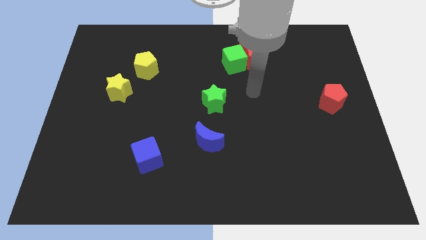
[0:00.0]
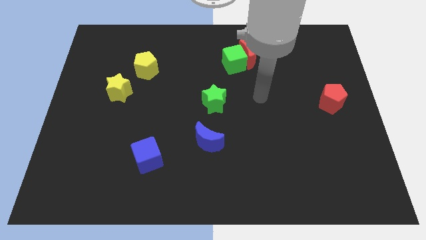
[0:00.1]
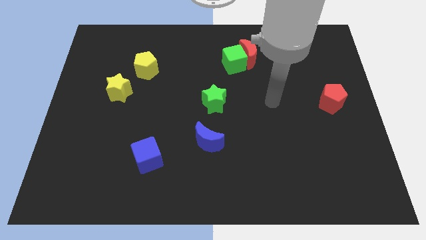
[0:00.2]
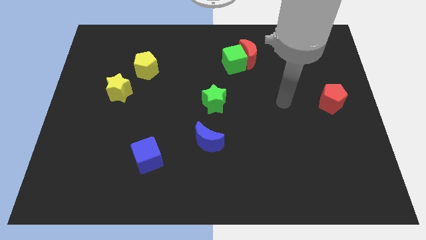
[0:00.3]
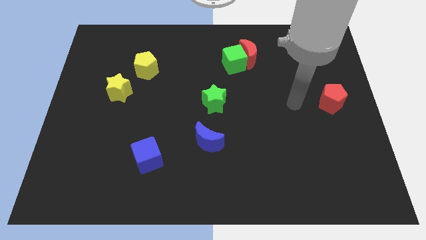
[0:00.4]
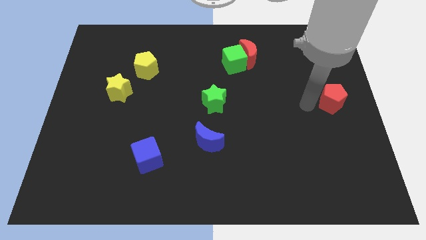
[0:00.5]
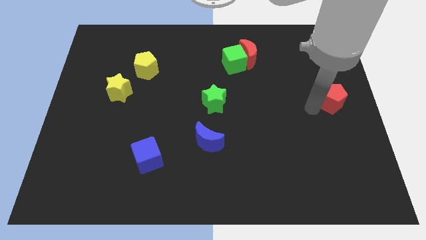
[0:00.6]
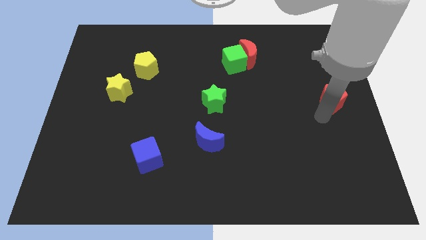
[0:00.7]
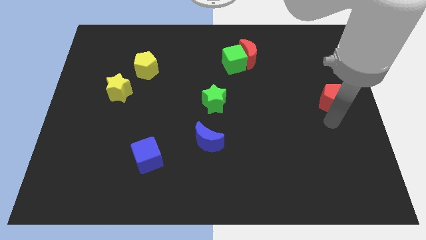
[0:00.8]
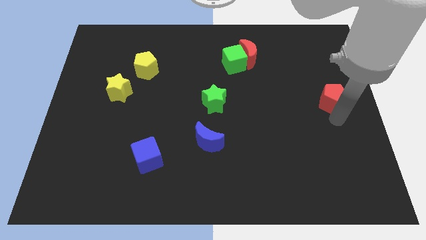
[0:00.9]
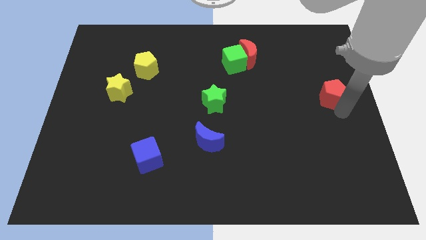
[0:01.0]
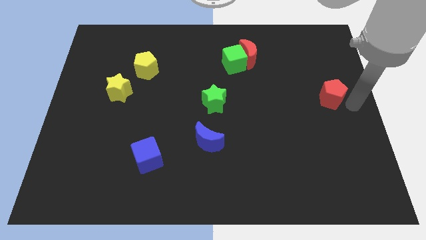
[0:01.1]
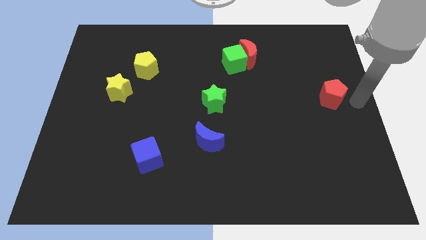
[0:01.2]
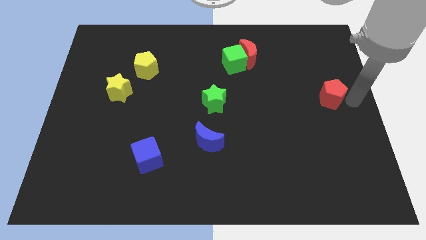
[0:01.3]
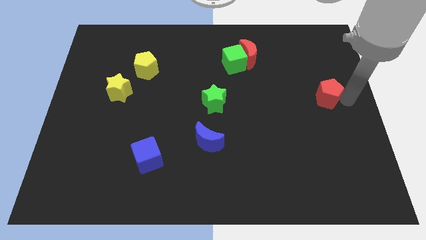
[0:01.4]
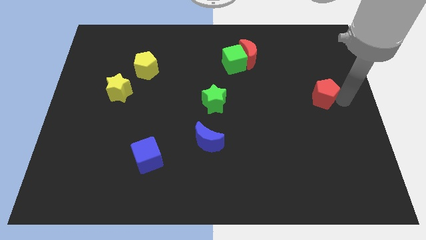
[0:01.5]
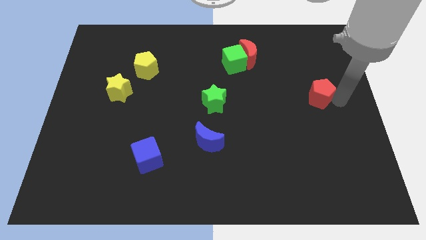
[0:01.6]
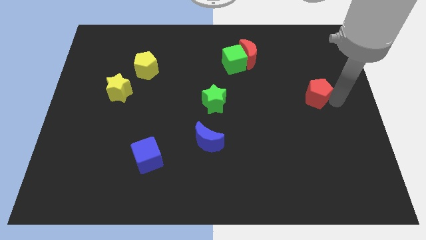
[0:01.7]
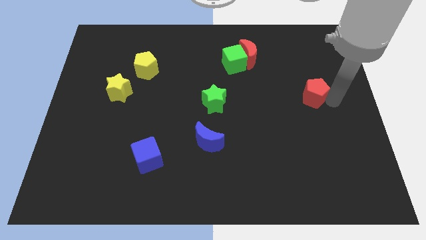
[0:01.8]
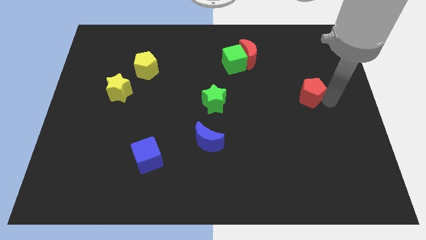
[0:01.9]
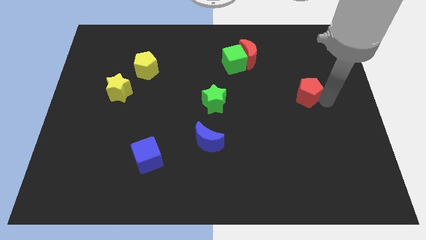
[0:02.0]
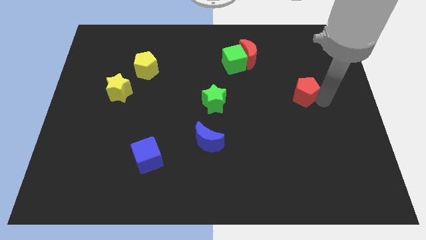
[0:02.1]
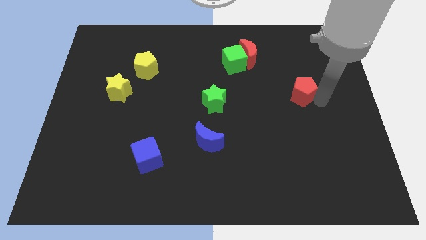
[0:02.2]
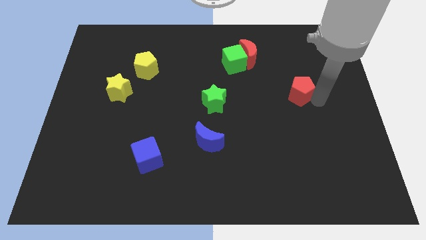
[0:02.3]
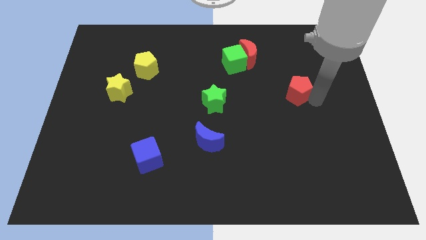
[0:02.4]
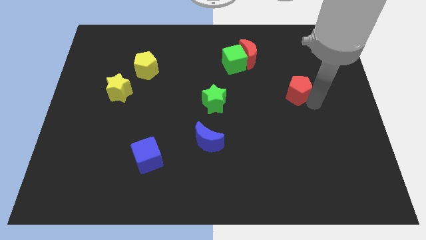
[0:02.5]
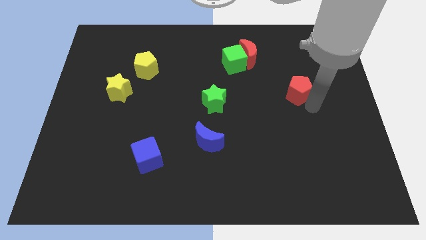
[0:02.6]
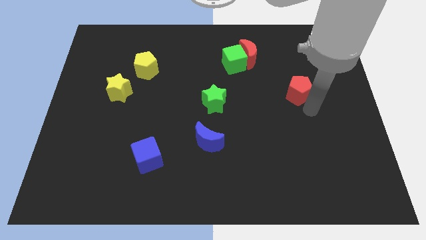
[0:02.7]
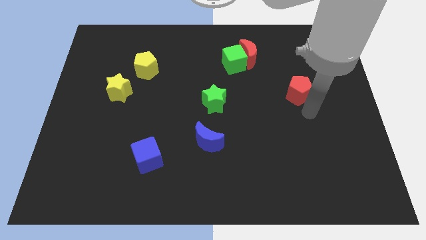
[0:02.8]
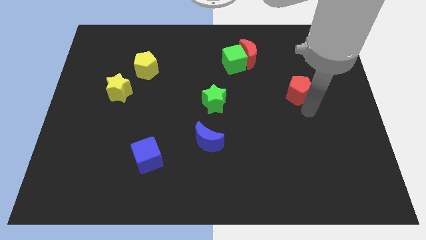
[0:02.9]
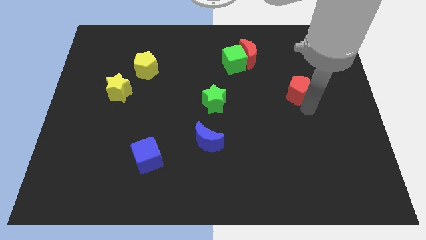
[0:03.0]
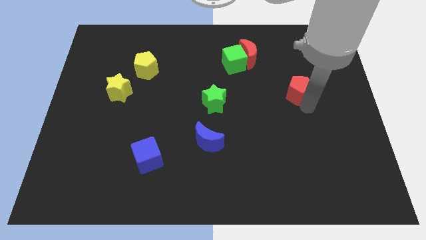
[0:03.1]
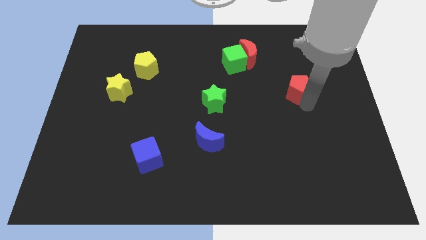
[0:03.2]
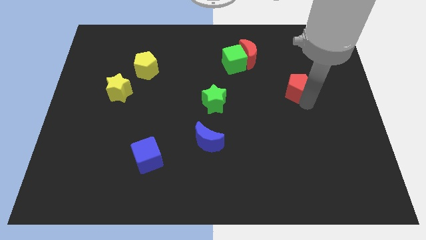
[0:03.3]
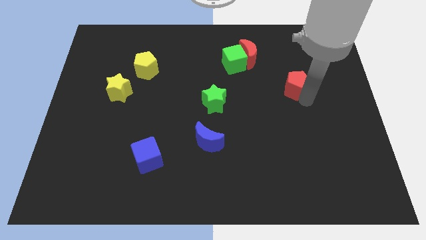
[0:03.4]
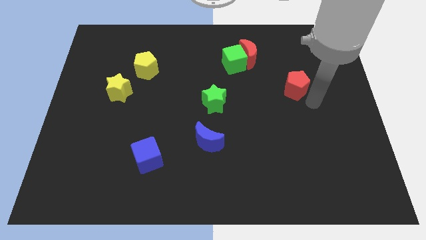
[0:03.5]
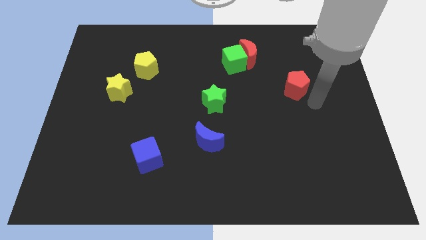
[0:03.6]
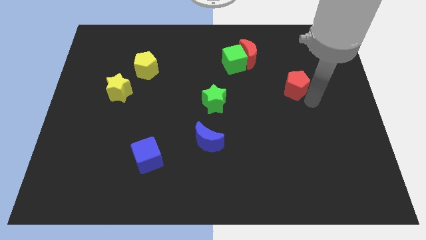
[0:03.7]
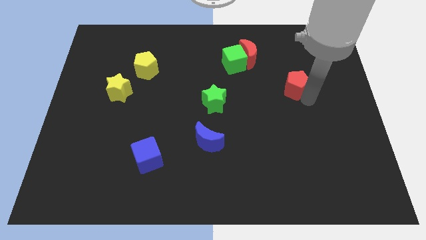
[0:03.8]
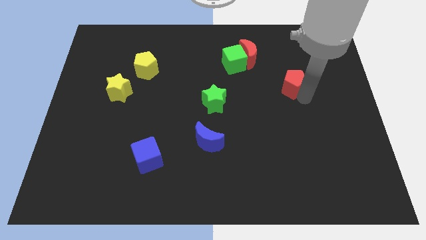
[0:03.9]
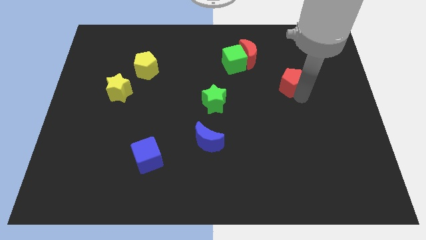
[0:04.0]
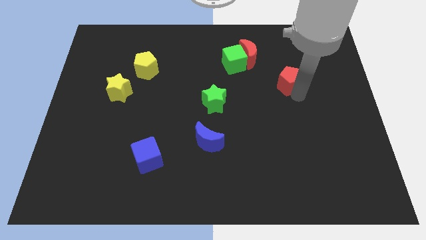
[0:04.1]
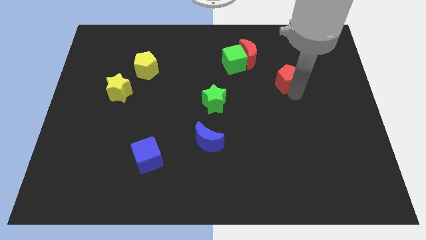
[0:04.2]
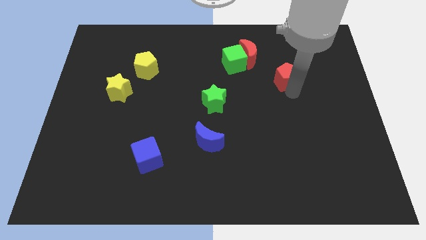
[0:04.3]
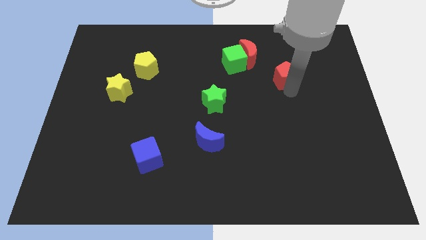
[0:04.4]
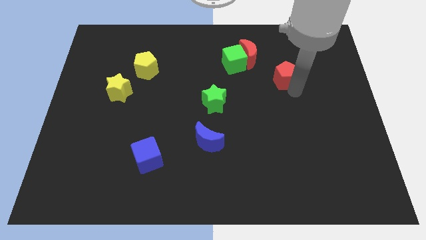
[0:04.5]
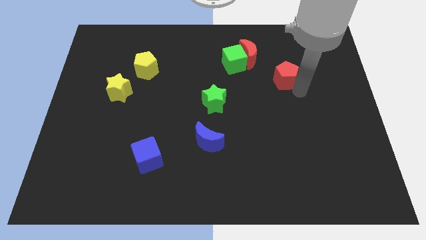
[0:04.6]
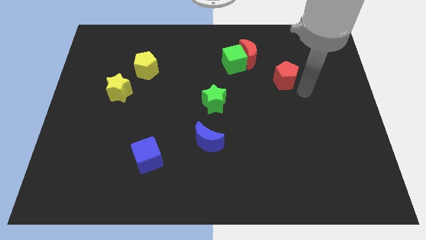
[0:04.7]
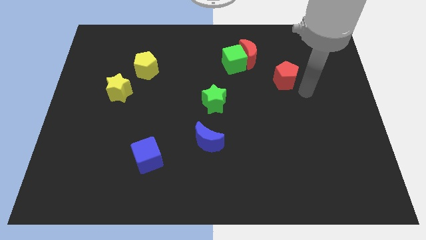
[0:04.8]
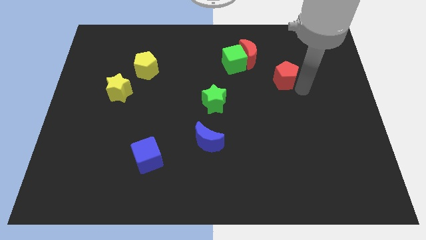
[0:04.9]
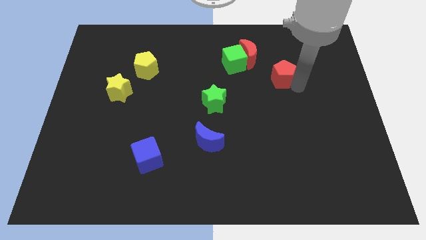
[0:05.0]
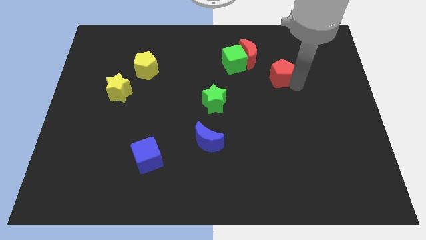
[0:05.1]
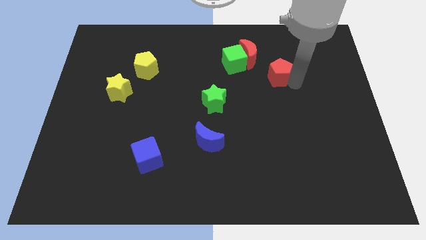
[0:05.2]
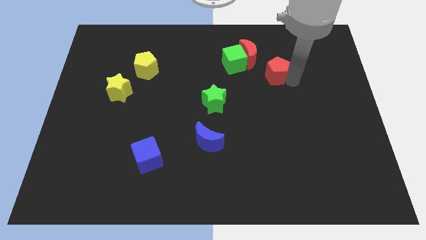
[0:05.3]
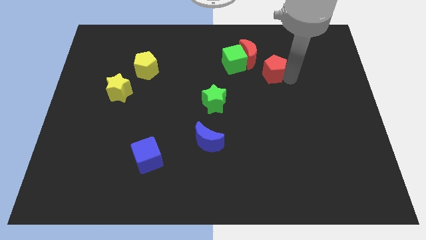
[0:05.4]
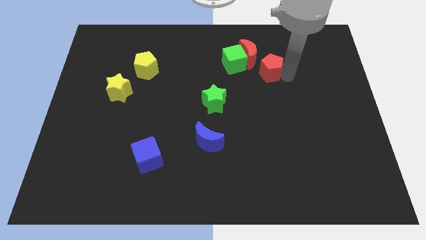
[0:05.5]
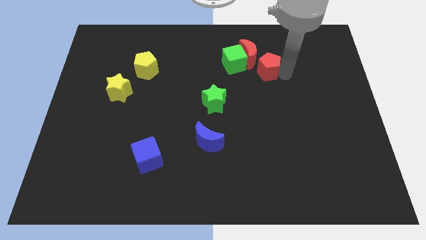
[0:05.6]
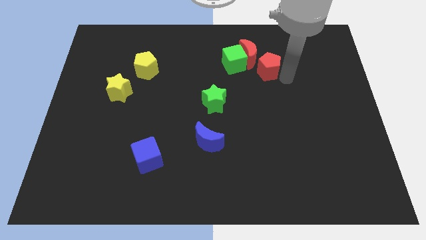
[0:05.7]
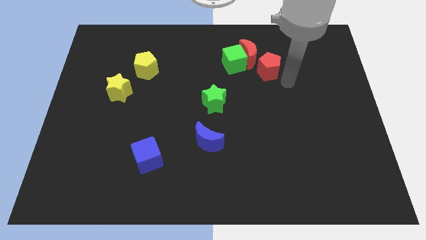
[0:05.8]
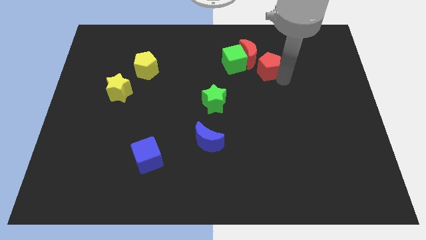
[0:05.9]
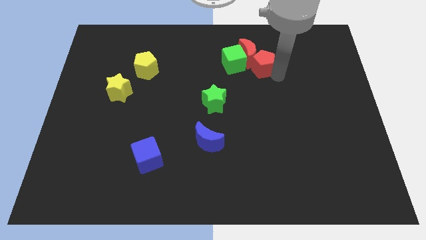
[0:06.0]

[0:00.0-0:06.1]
move the red pentagon to the red moon

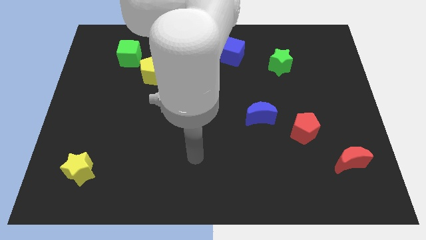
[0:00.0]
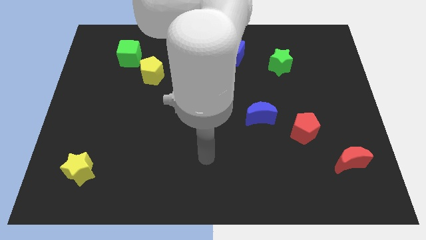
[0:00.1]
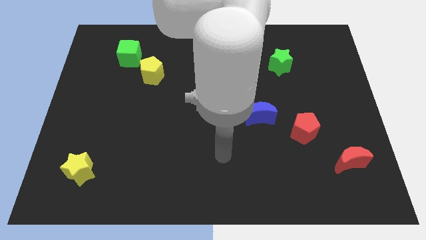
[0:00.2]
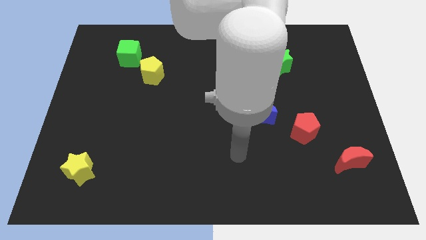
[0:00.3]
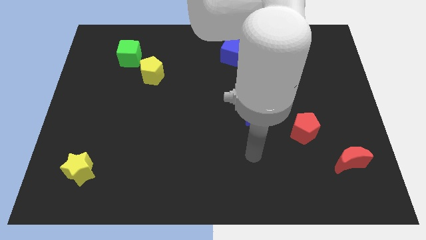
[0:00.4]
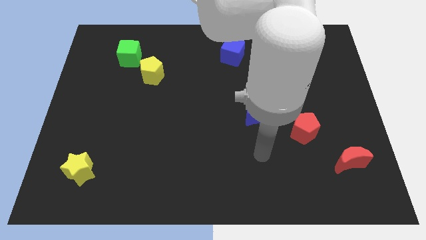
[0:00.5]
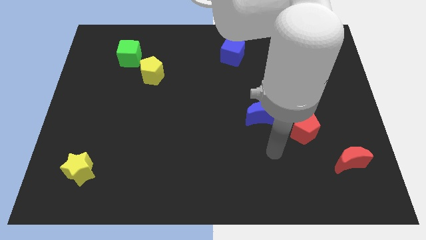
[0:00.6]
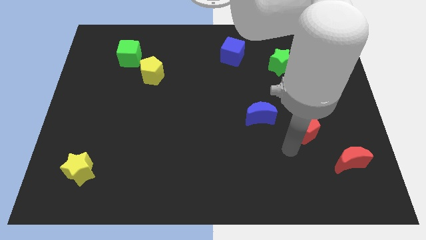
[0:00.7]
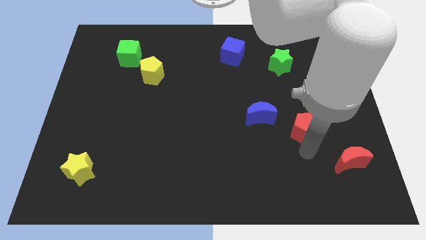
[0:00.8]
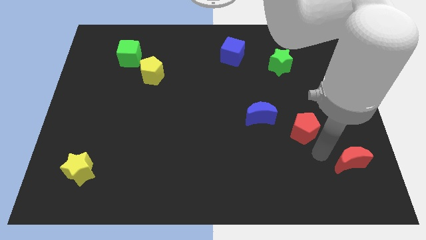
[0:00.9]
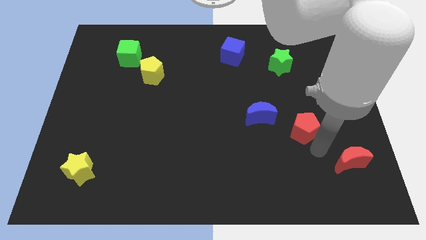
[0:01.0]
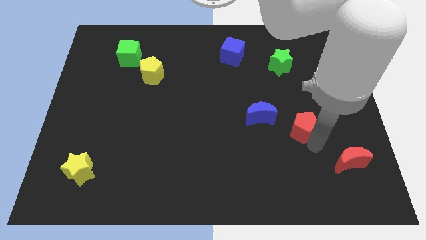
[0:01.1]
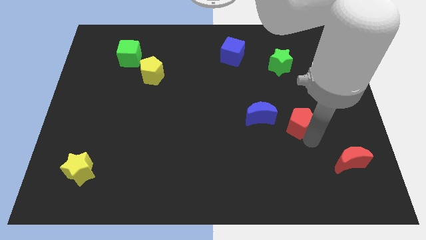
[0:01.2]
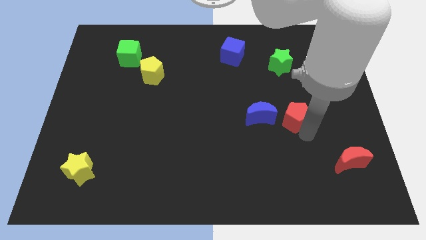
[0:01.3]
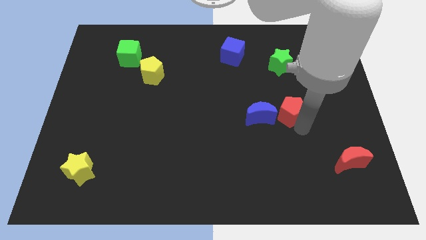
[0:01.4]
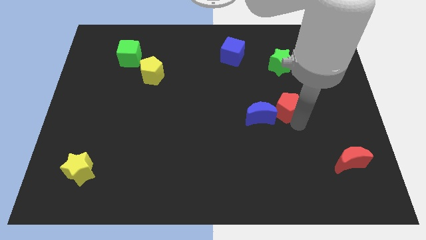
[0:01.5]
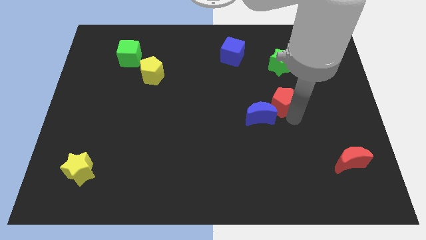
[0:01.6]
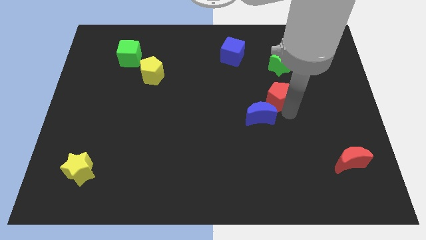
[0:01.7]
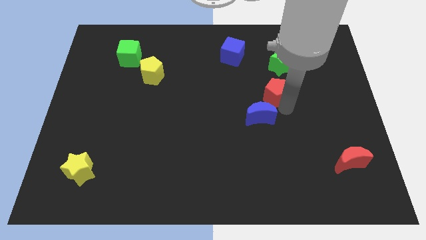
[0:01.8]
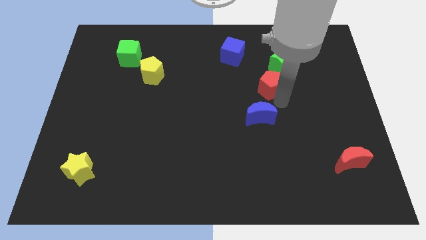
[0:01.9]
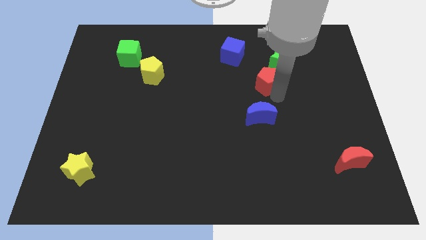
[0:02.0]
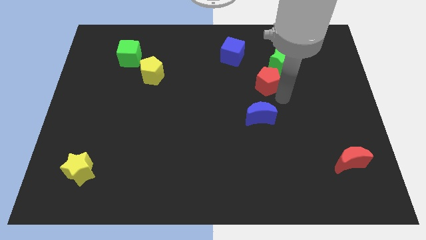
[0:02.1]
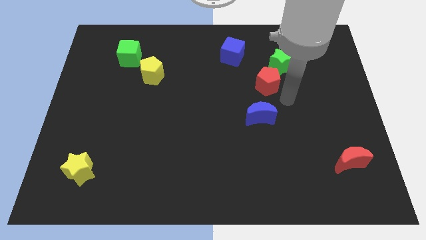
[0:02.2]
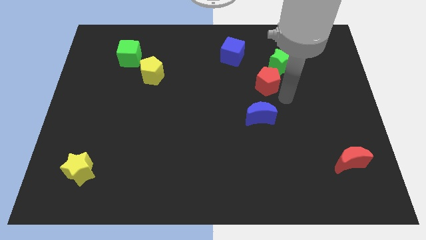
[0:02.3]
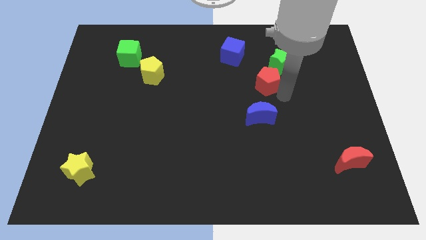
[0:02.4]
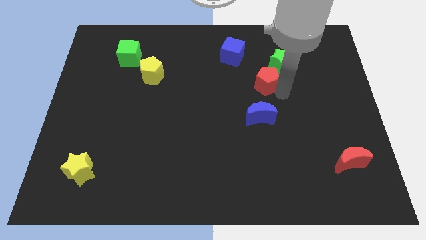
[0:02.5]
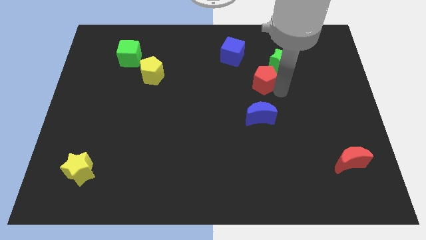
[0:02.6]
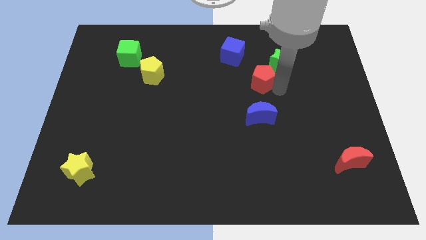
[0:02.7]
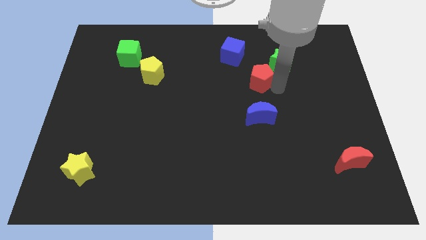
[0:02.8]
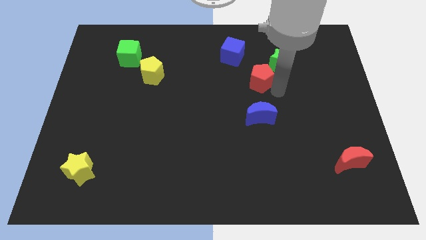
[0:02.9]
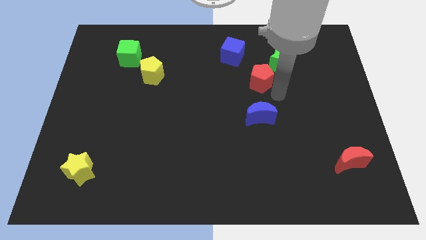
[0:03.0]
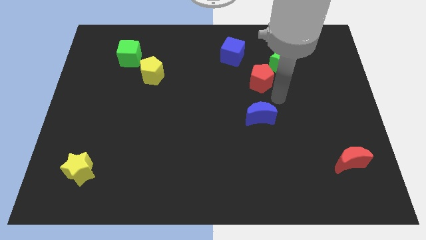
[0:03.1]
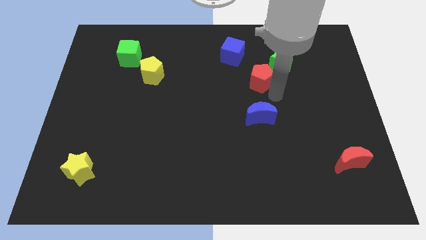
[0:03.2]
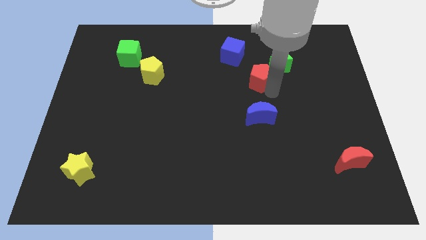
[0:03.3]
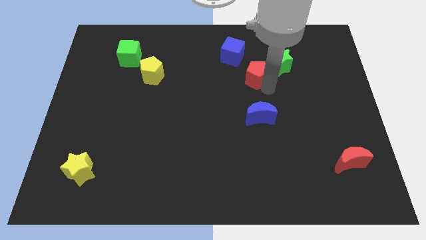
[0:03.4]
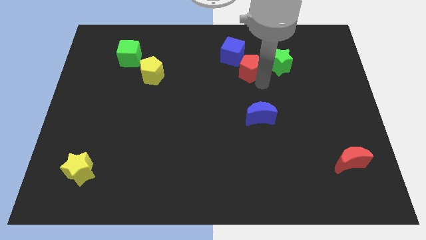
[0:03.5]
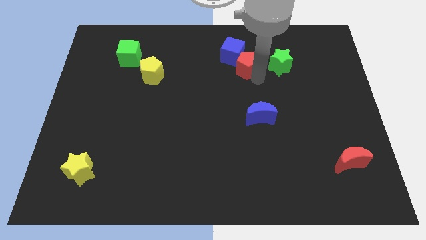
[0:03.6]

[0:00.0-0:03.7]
slide the red pentagon next to the blue cube
